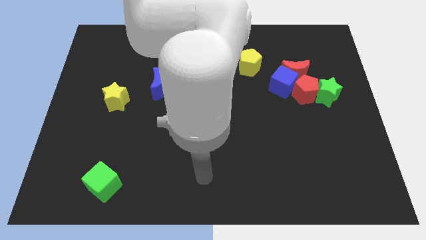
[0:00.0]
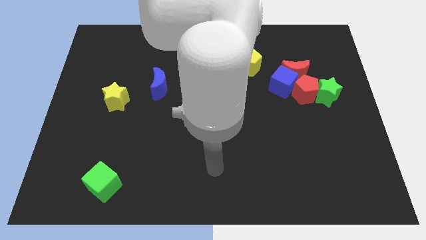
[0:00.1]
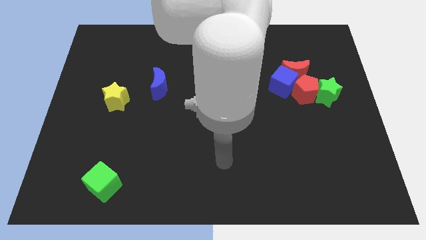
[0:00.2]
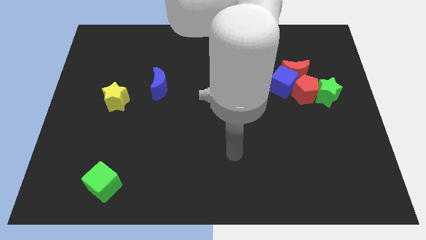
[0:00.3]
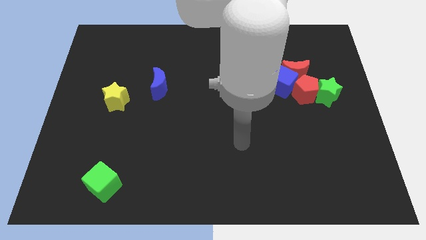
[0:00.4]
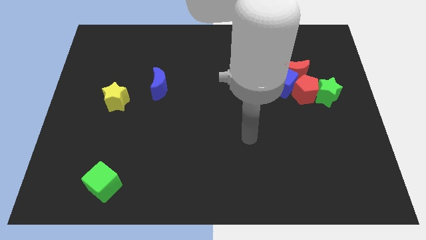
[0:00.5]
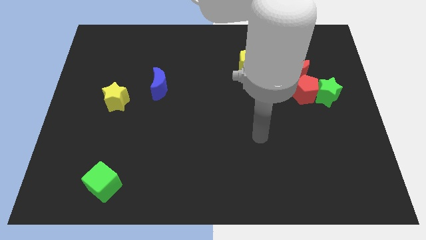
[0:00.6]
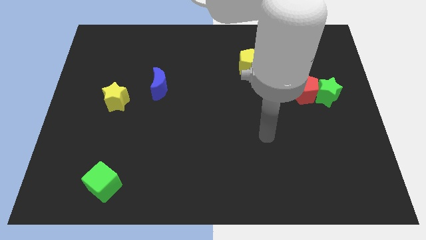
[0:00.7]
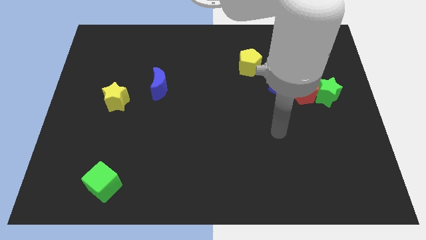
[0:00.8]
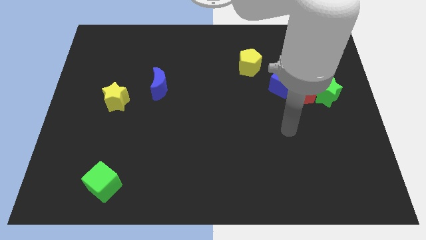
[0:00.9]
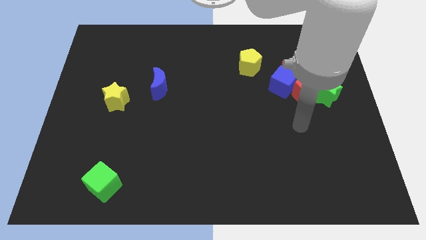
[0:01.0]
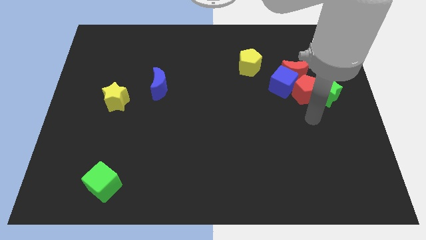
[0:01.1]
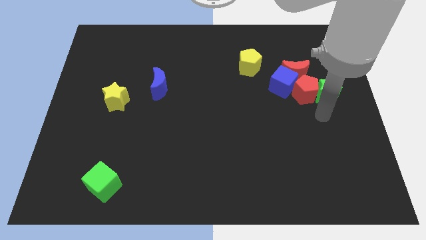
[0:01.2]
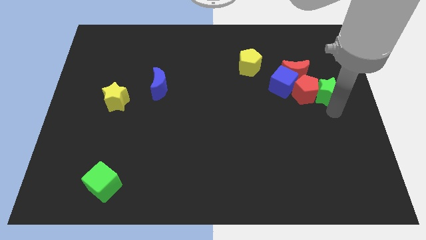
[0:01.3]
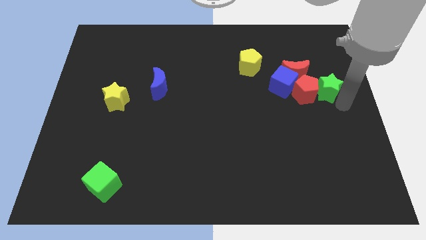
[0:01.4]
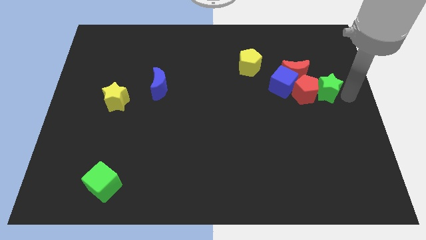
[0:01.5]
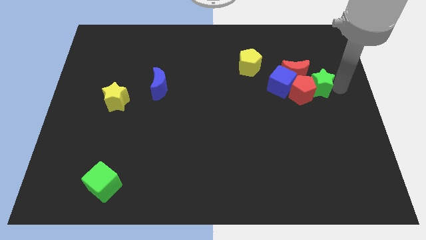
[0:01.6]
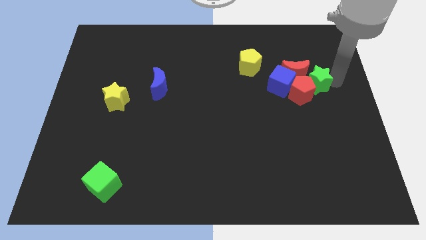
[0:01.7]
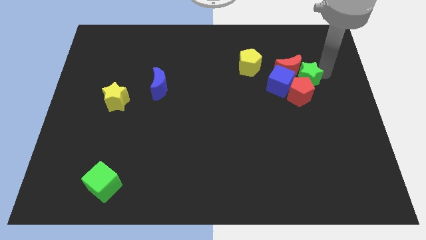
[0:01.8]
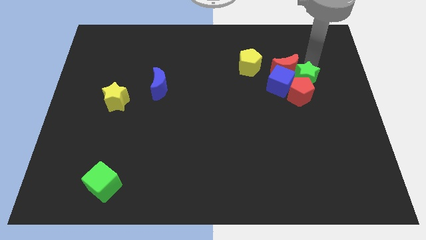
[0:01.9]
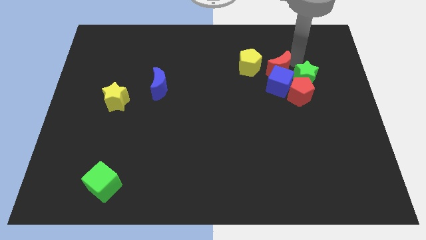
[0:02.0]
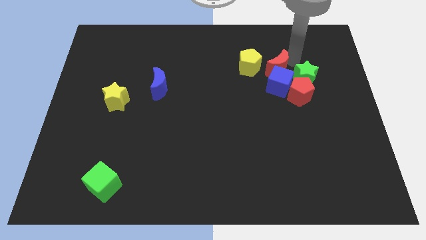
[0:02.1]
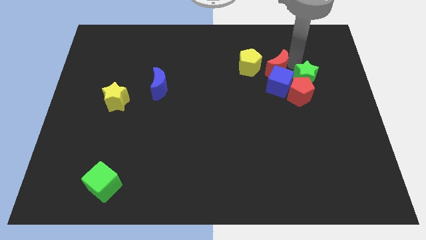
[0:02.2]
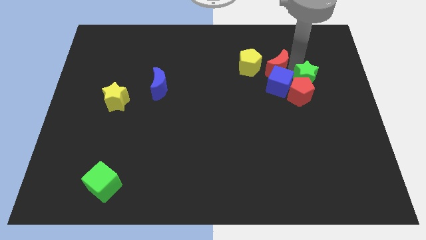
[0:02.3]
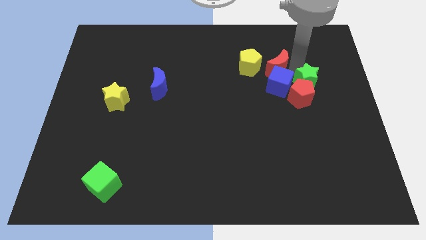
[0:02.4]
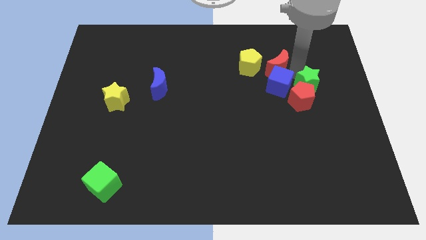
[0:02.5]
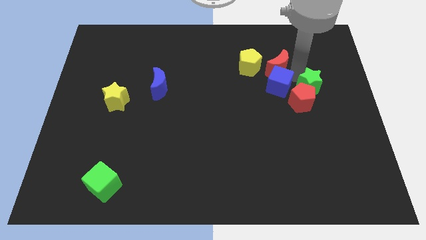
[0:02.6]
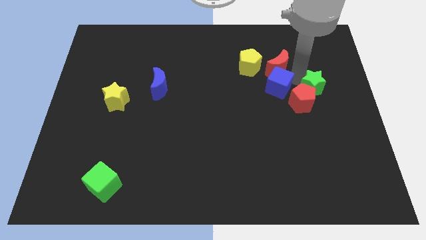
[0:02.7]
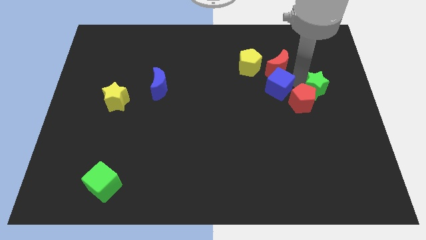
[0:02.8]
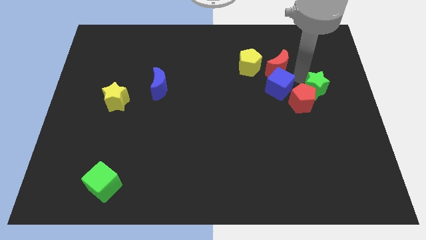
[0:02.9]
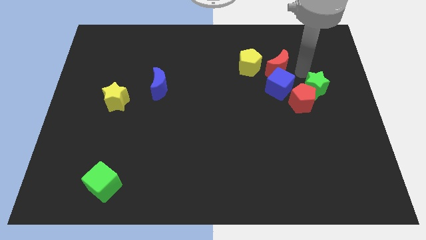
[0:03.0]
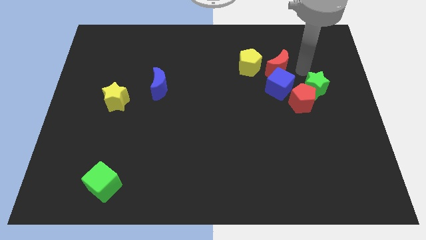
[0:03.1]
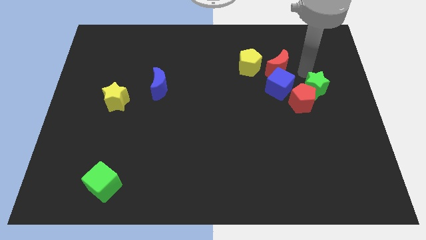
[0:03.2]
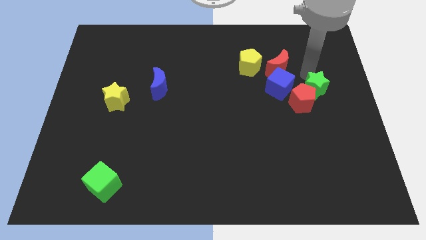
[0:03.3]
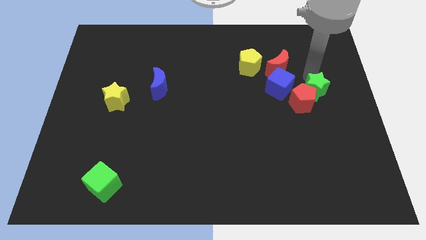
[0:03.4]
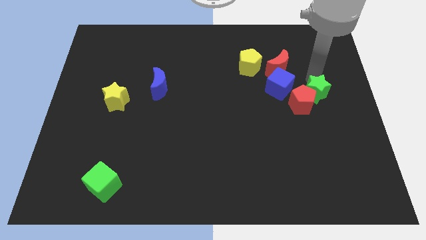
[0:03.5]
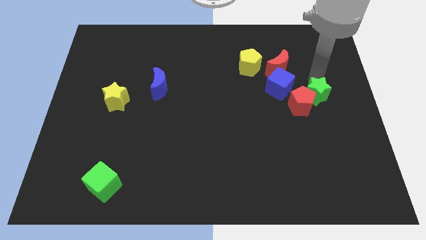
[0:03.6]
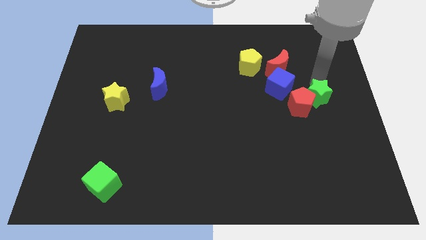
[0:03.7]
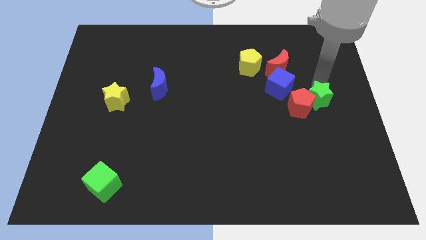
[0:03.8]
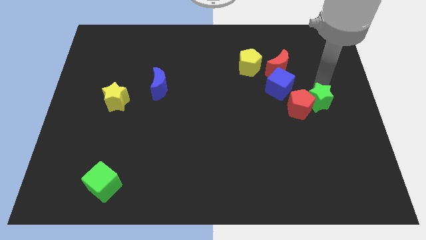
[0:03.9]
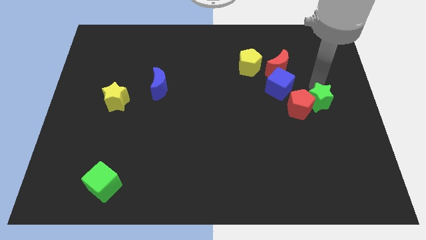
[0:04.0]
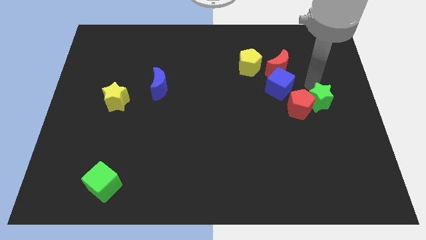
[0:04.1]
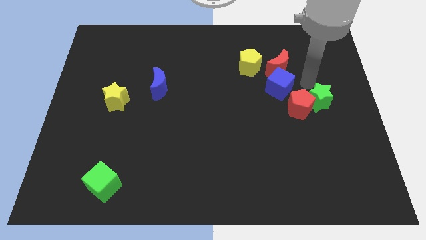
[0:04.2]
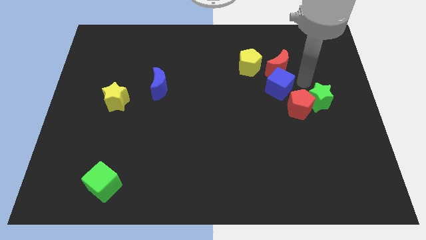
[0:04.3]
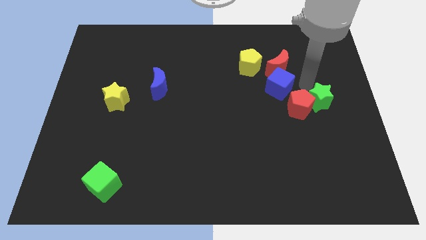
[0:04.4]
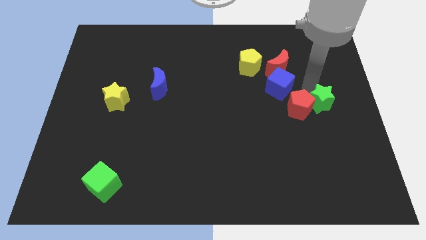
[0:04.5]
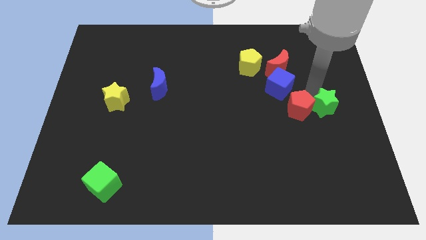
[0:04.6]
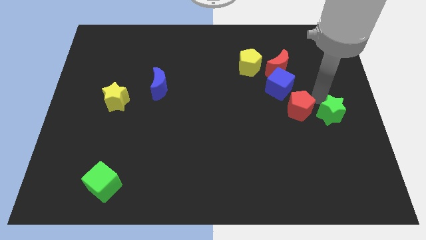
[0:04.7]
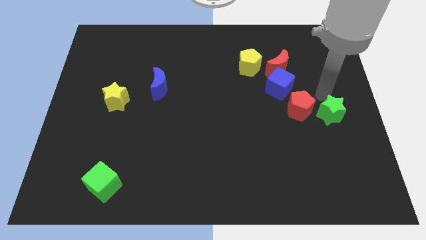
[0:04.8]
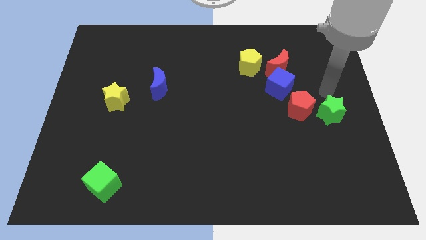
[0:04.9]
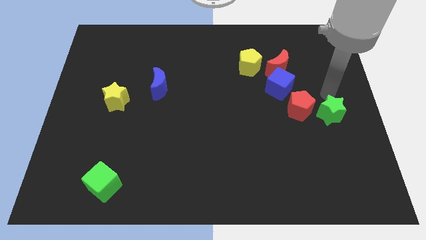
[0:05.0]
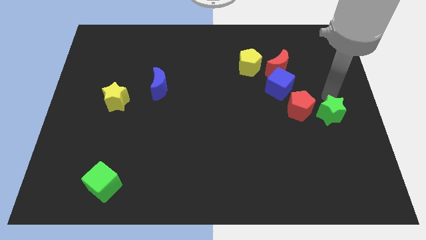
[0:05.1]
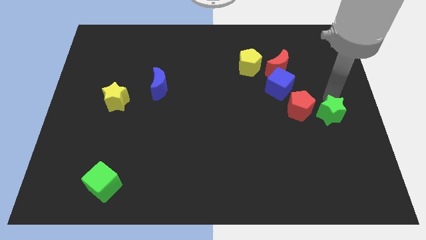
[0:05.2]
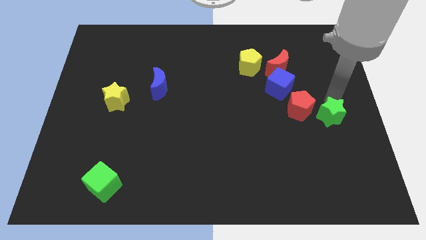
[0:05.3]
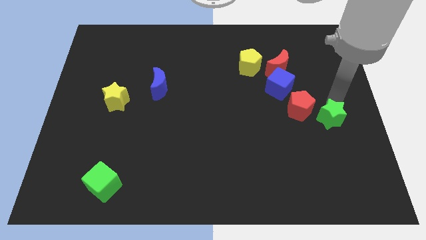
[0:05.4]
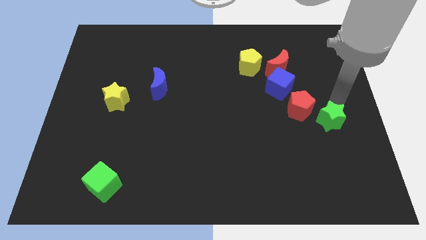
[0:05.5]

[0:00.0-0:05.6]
slide the green star somewhat down

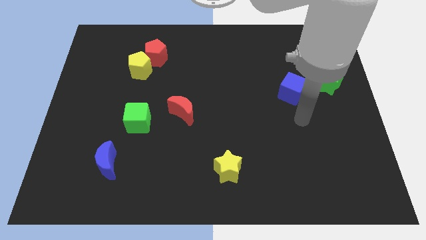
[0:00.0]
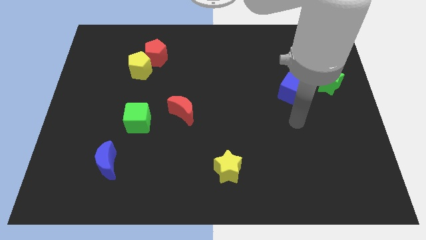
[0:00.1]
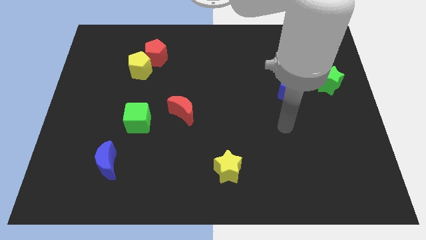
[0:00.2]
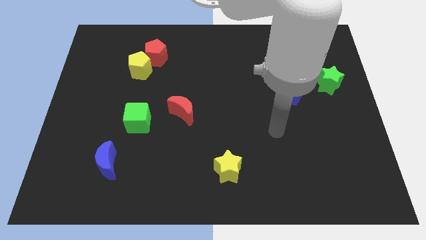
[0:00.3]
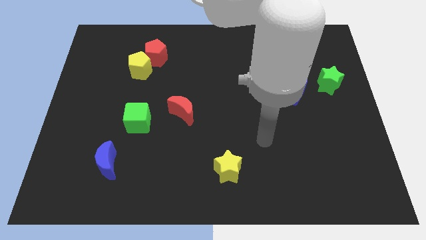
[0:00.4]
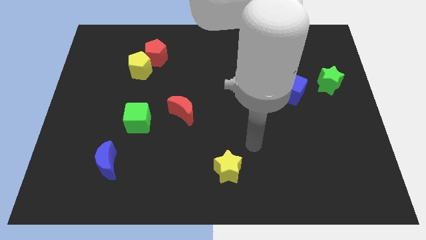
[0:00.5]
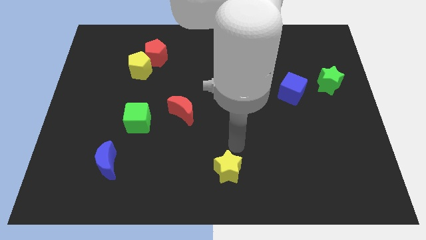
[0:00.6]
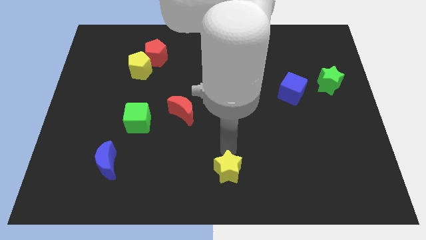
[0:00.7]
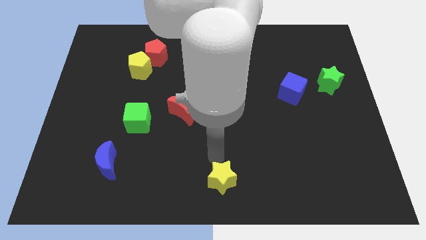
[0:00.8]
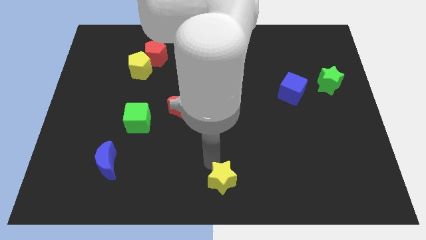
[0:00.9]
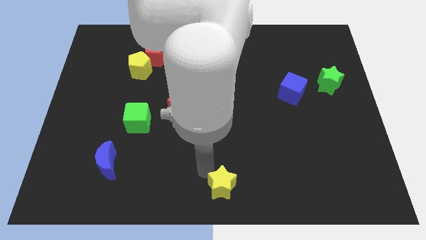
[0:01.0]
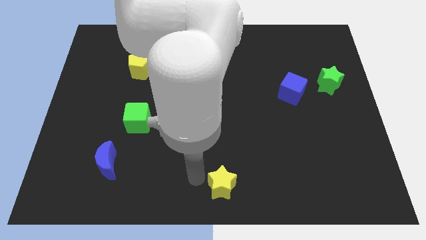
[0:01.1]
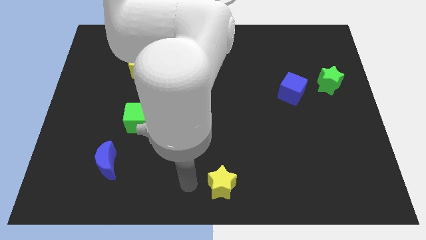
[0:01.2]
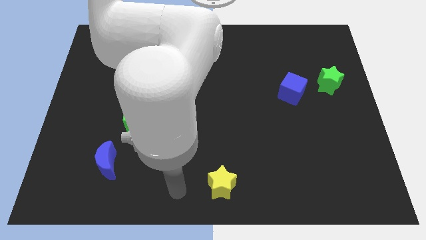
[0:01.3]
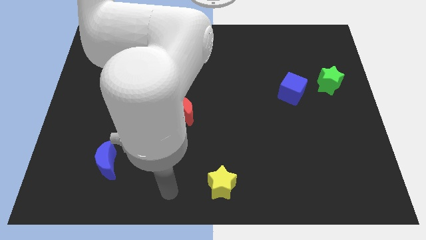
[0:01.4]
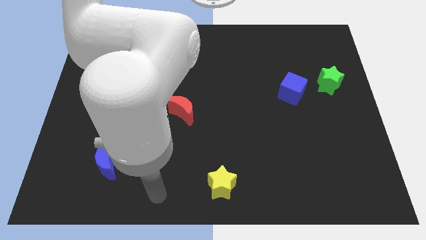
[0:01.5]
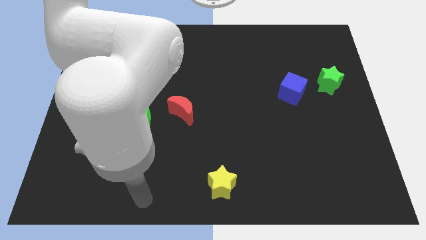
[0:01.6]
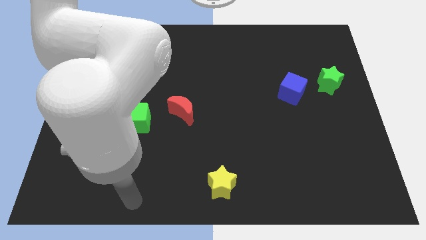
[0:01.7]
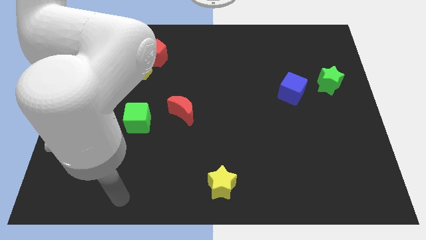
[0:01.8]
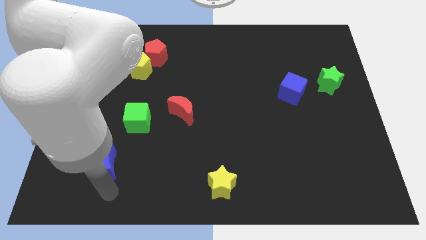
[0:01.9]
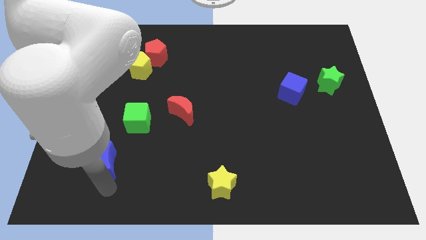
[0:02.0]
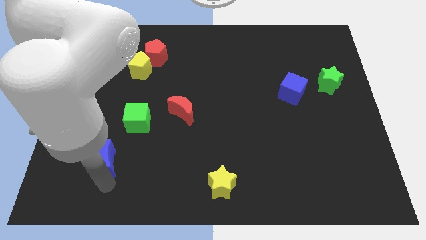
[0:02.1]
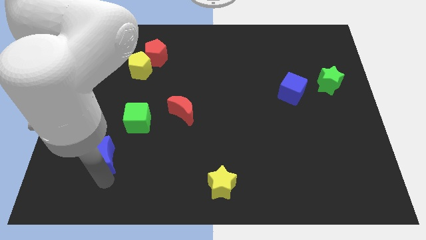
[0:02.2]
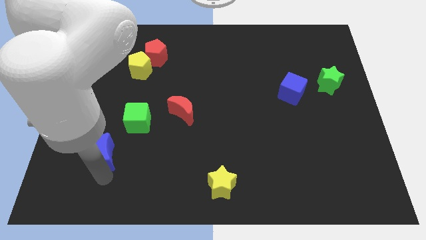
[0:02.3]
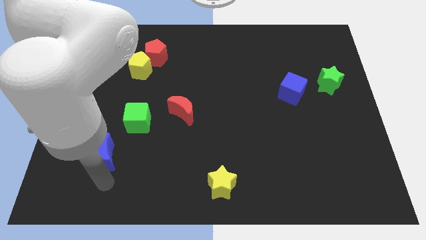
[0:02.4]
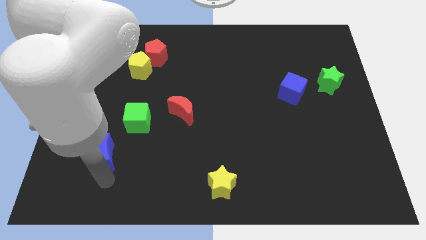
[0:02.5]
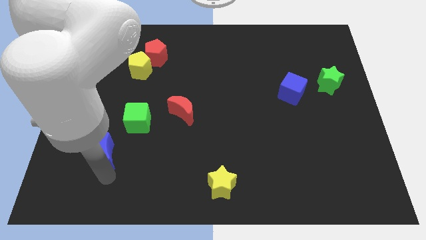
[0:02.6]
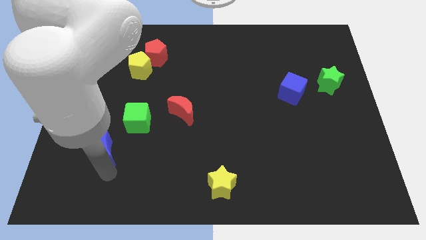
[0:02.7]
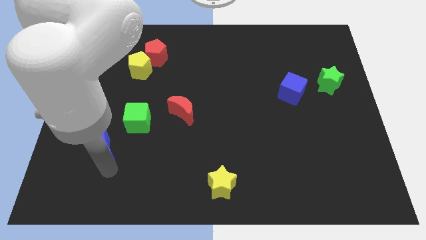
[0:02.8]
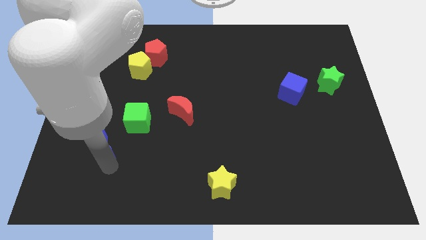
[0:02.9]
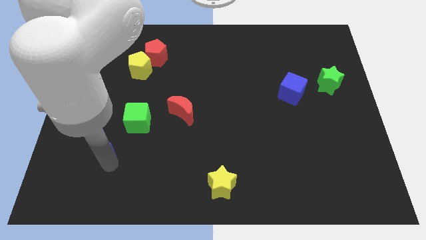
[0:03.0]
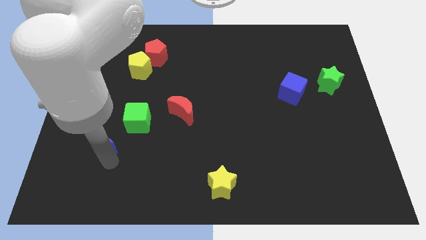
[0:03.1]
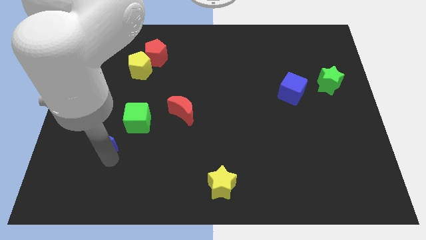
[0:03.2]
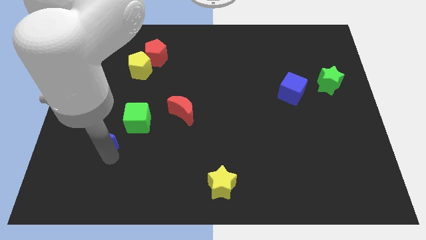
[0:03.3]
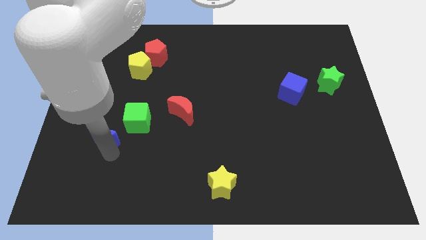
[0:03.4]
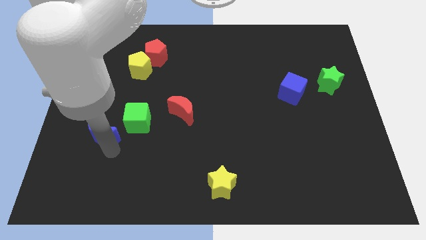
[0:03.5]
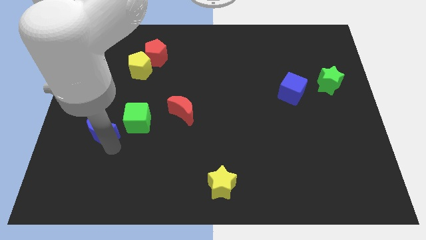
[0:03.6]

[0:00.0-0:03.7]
move the blue moon upwards a bit
